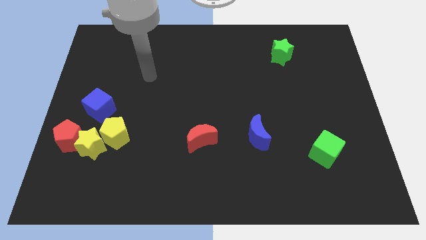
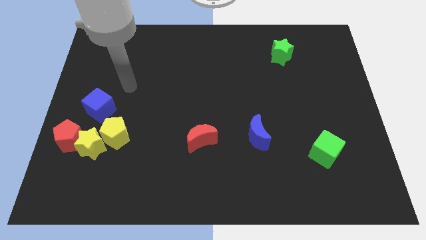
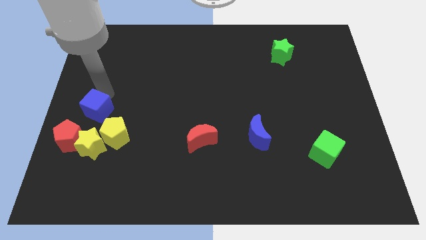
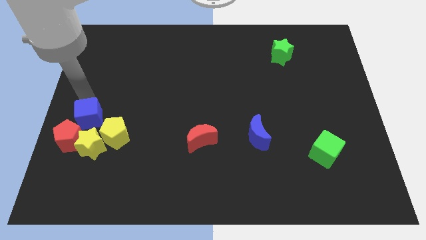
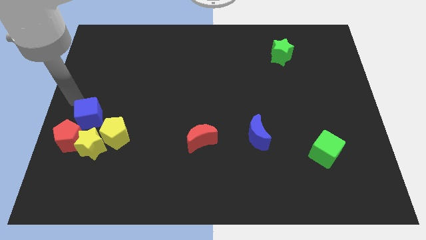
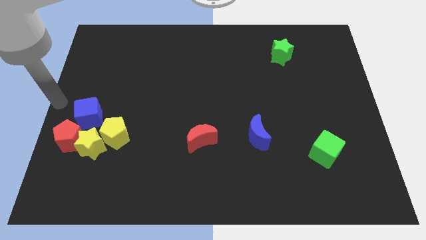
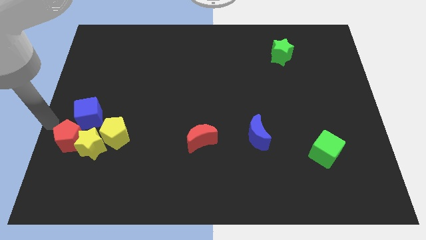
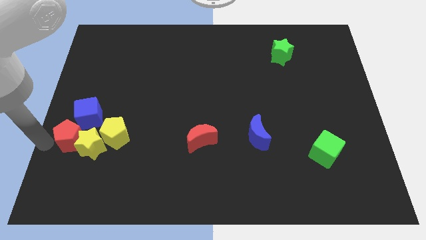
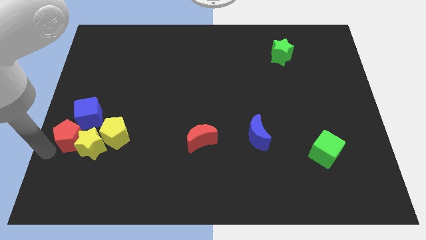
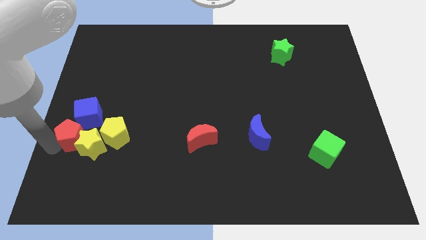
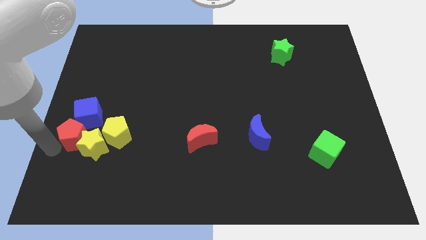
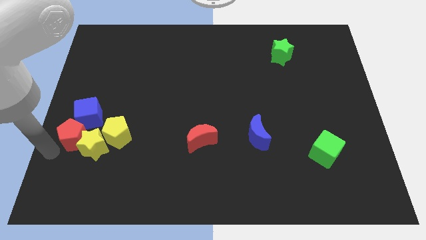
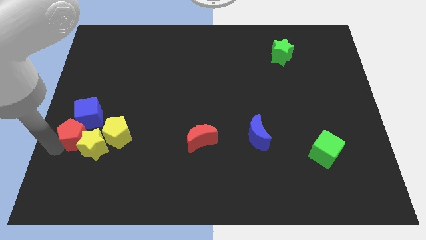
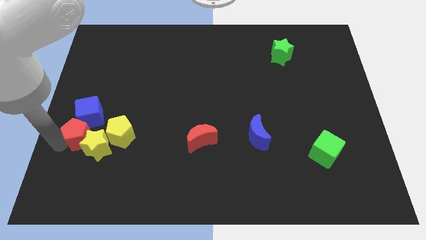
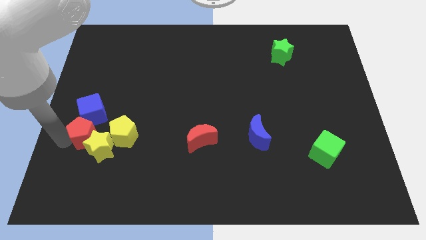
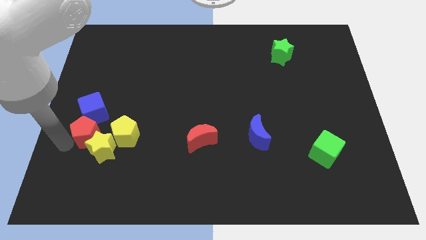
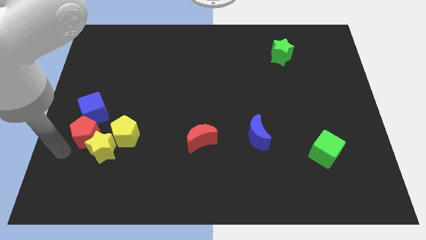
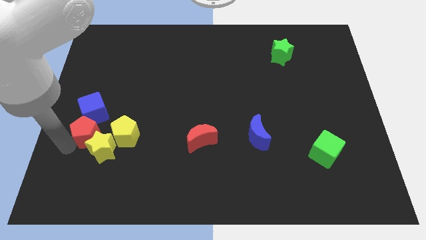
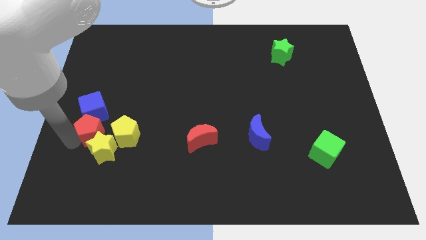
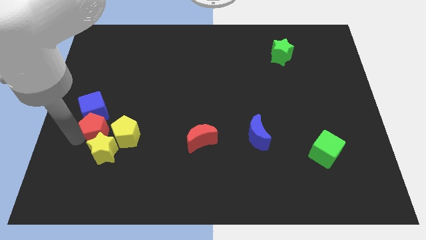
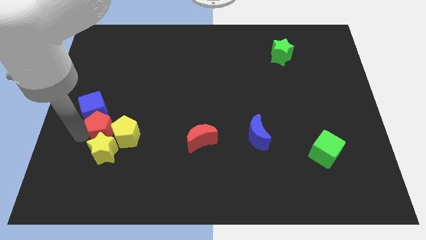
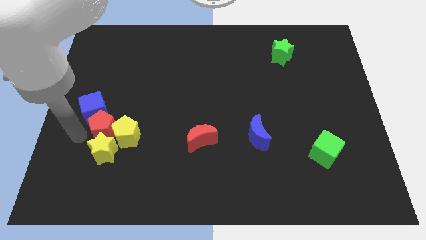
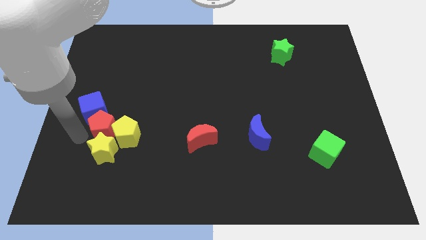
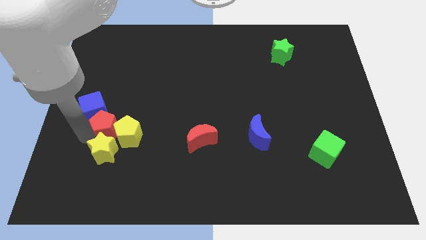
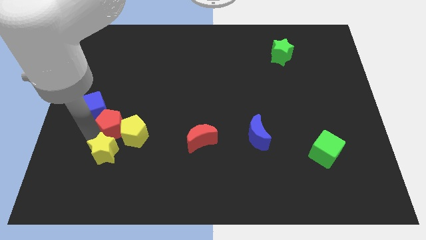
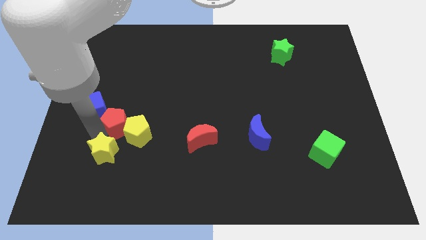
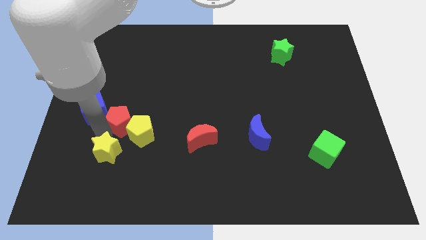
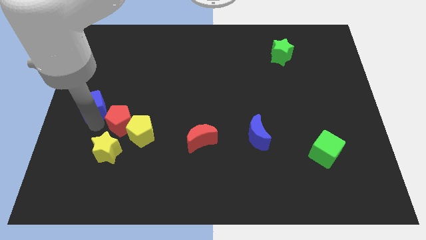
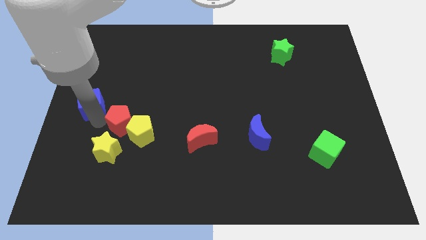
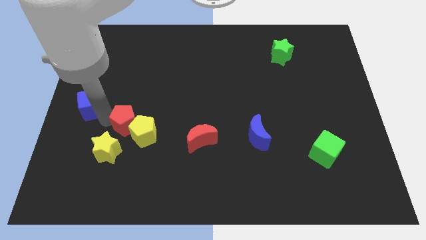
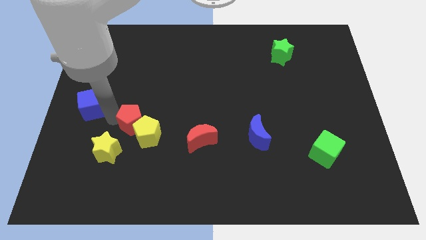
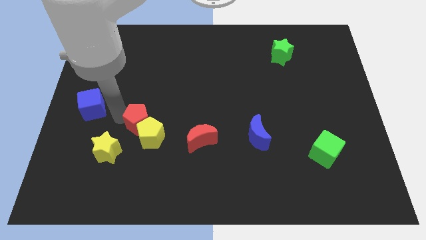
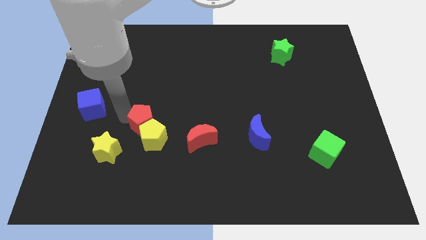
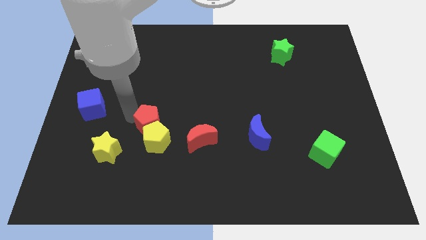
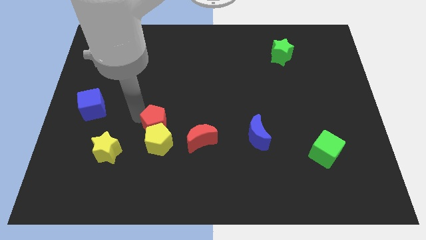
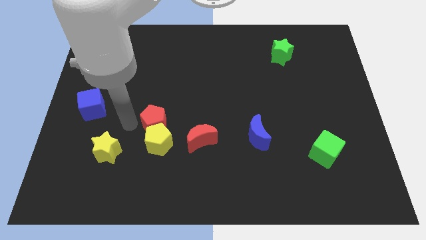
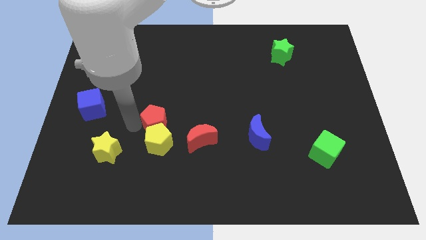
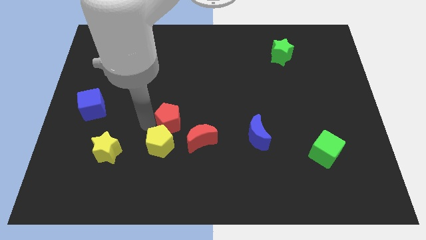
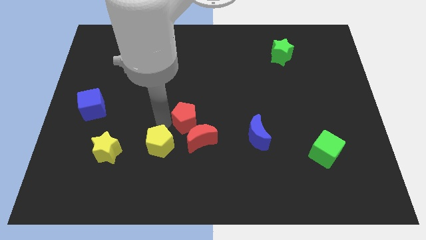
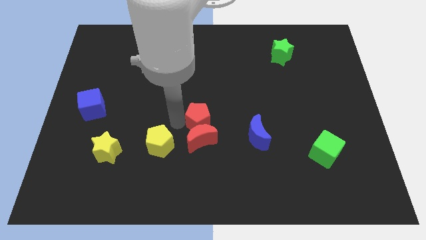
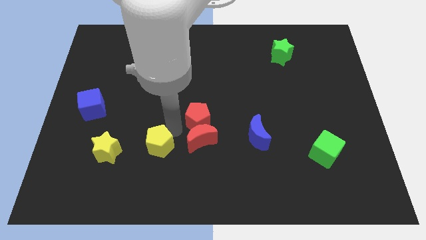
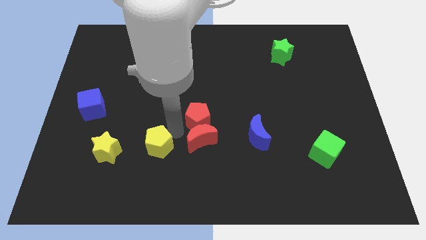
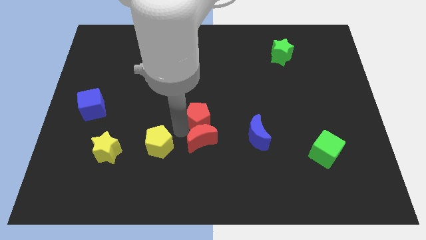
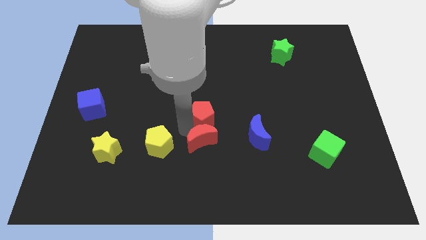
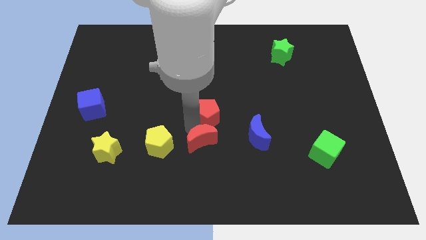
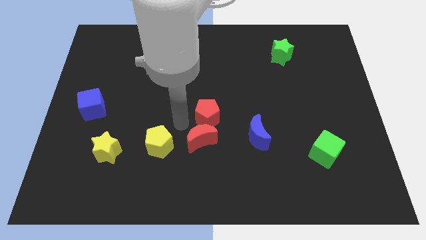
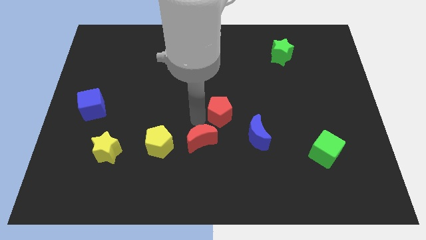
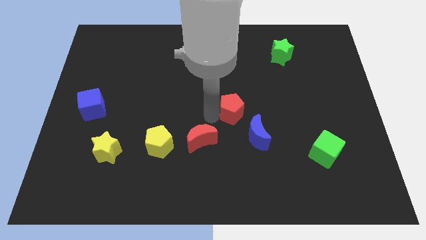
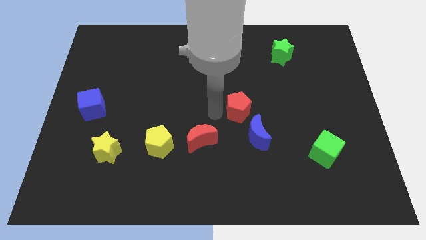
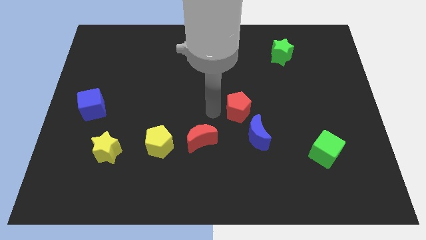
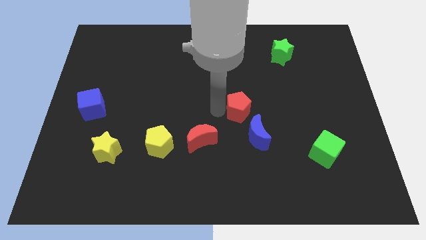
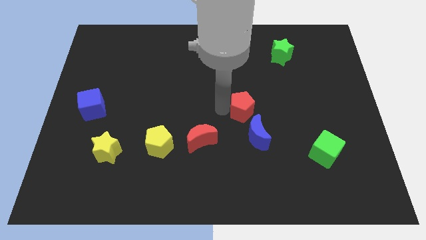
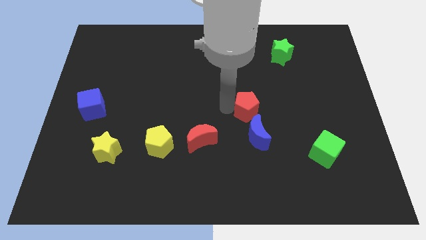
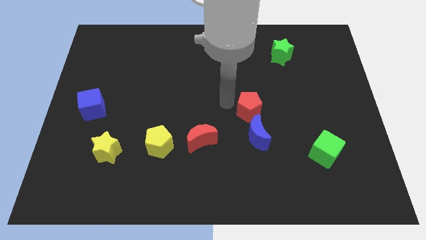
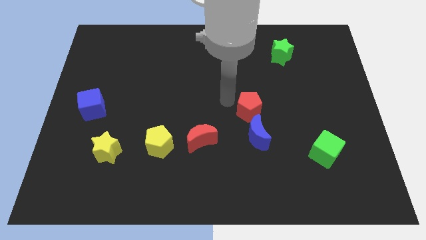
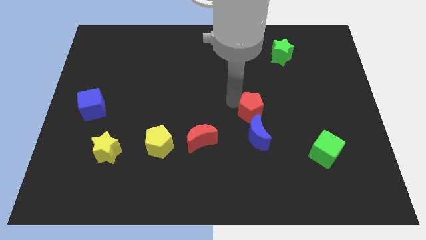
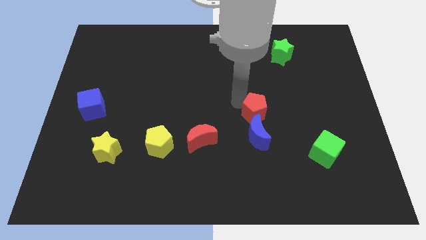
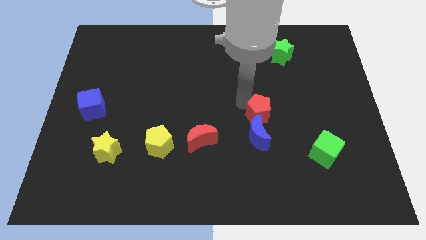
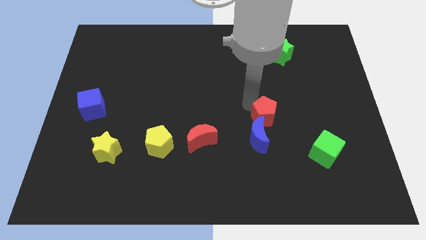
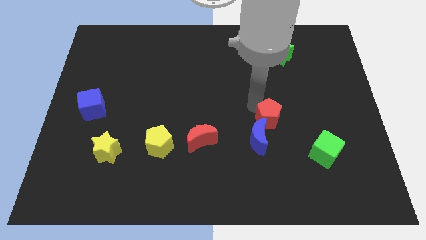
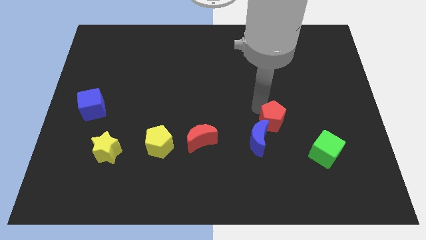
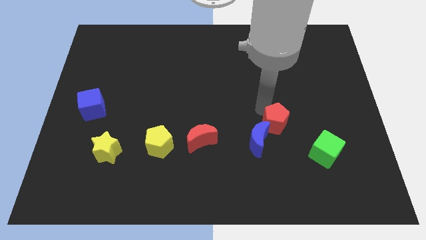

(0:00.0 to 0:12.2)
move the red pentagon just right of the blue moon

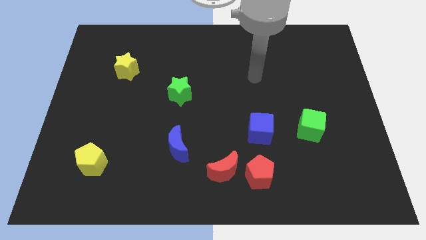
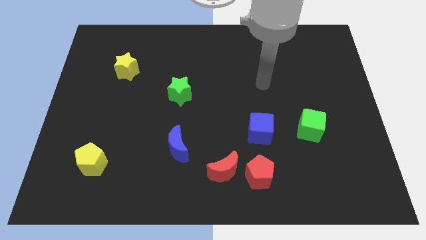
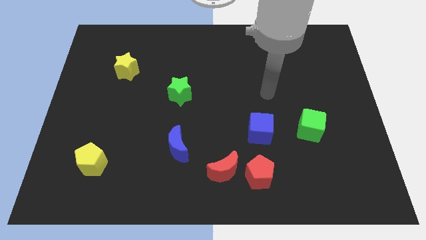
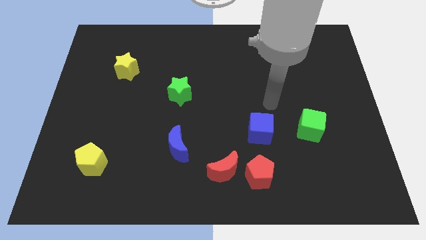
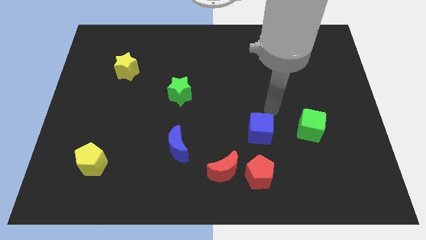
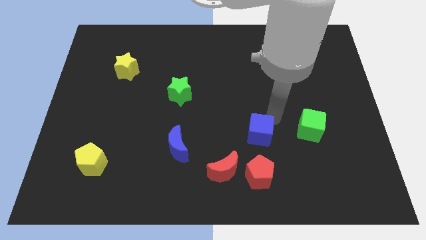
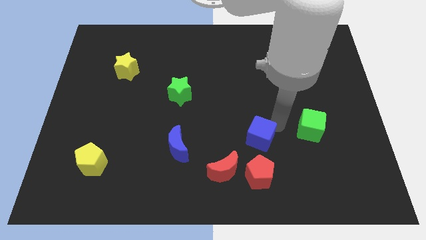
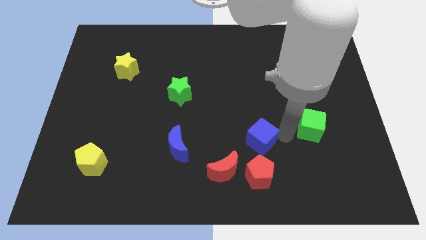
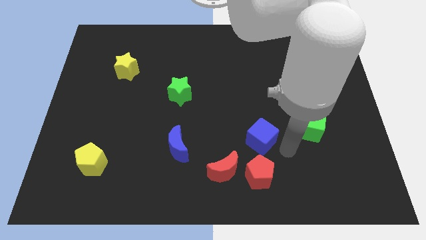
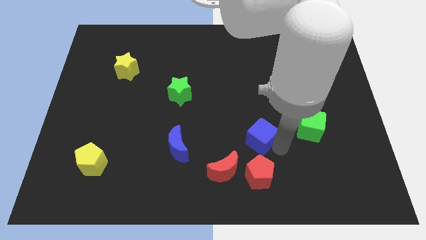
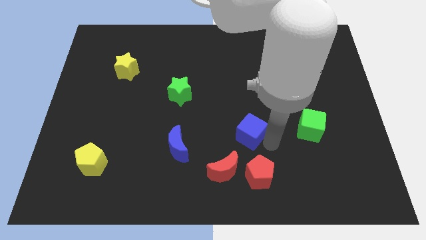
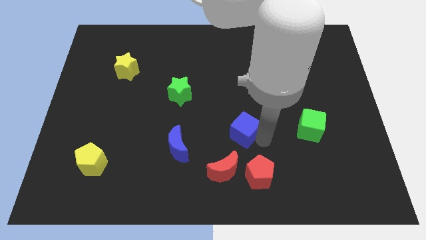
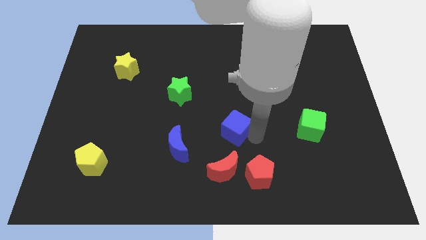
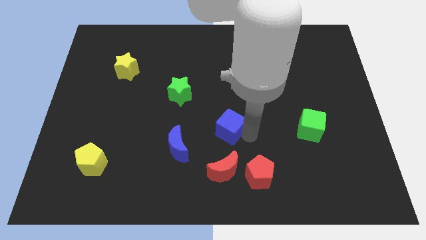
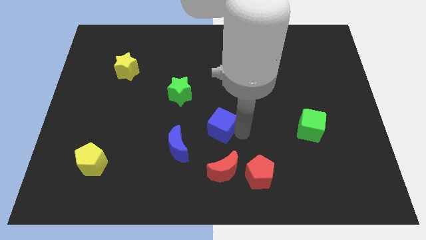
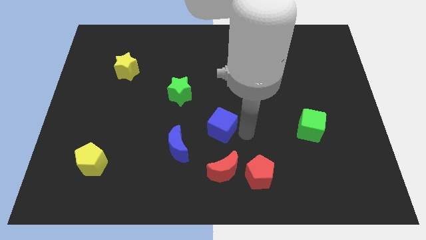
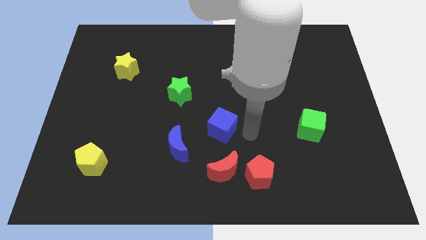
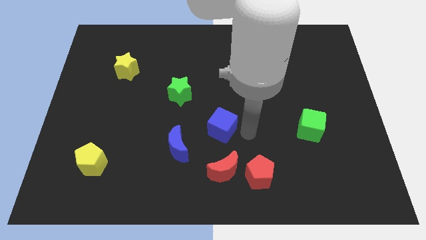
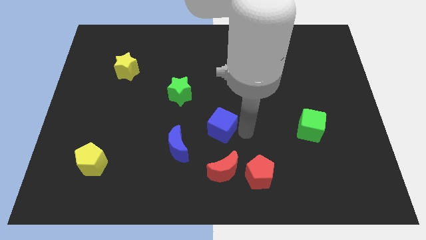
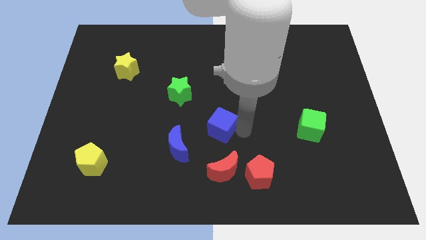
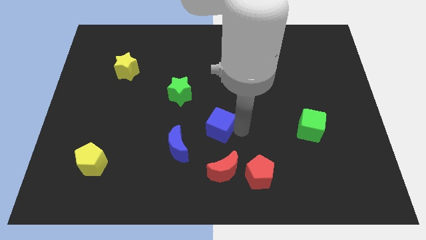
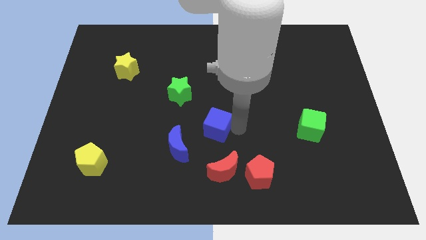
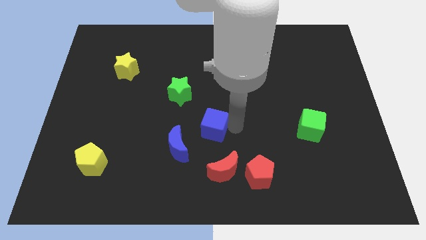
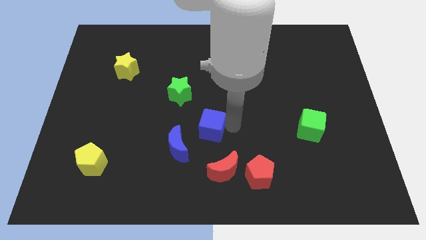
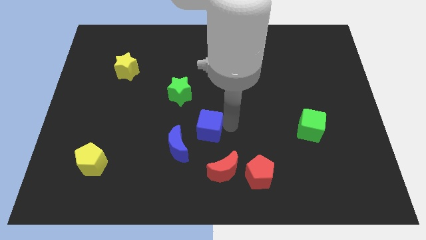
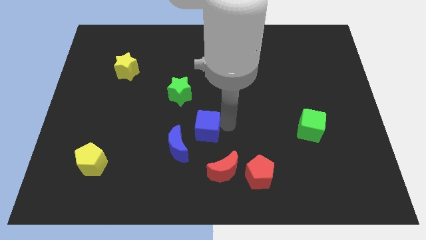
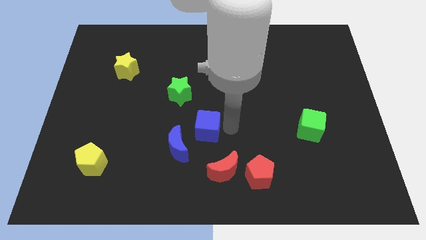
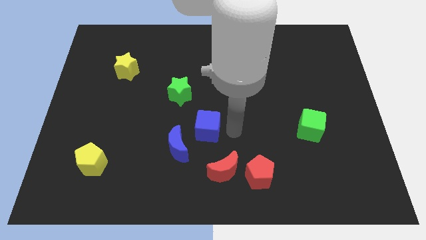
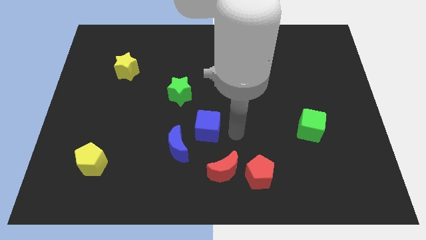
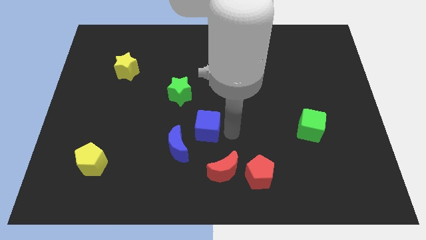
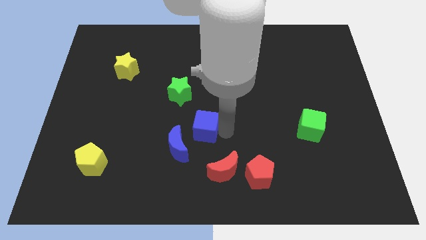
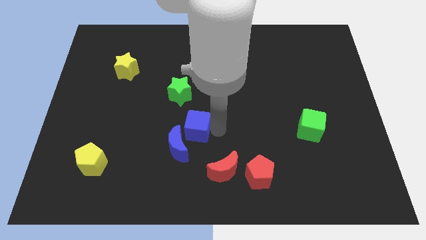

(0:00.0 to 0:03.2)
put the blue cube to the bottom of the green star
